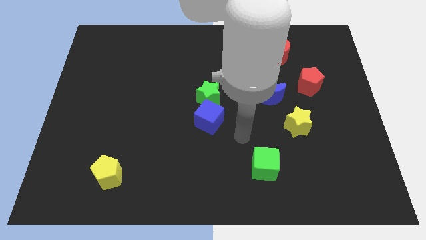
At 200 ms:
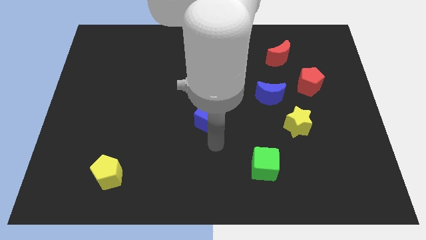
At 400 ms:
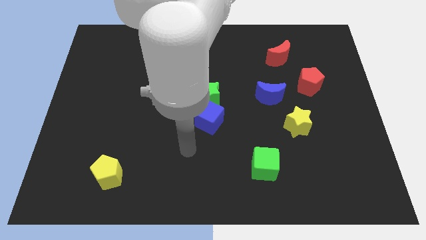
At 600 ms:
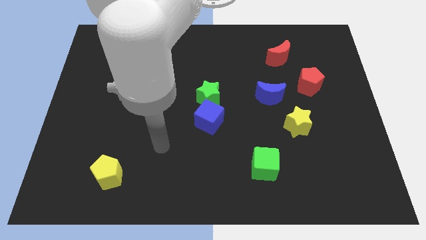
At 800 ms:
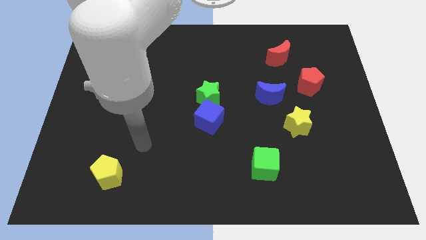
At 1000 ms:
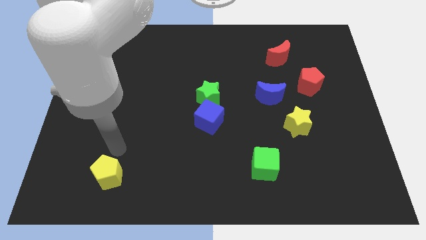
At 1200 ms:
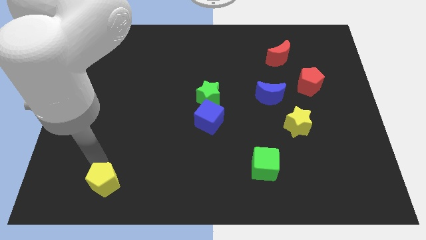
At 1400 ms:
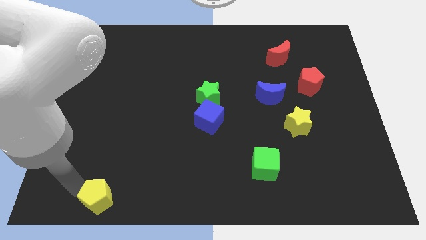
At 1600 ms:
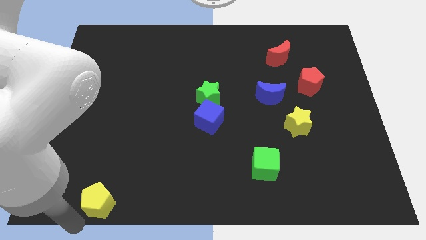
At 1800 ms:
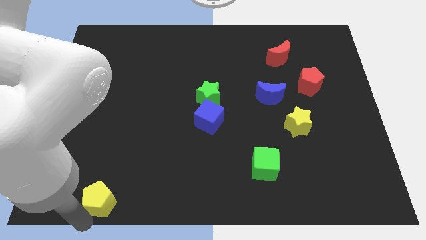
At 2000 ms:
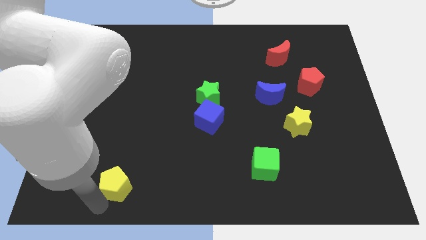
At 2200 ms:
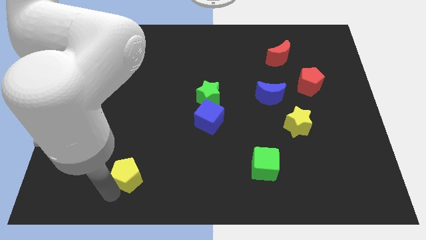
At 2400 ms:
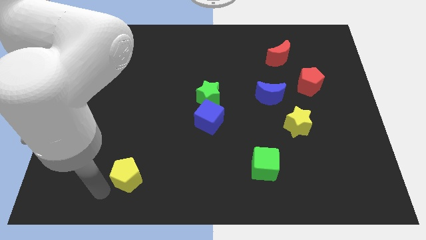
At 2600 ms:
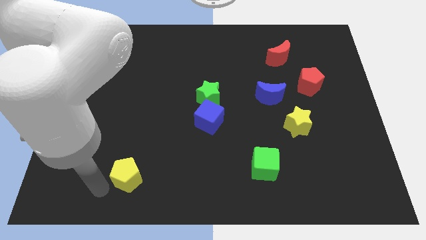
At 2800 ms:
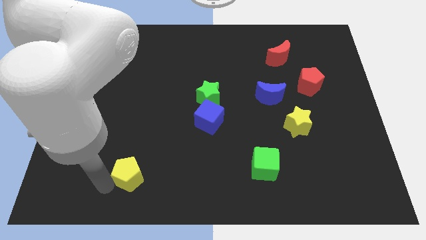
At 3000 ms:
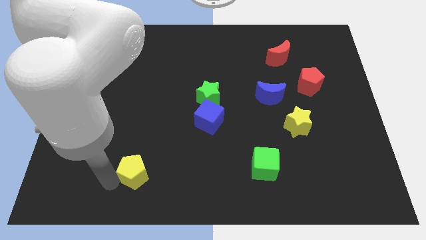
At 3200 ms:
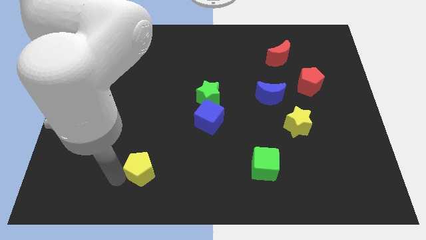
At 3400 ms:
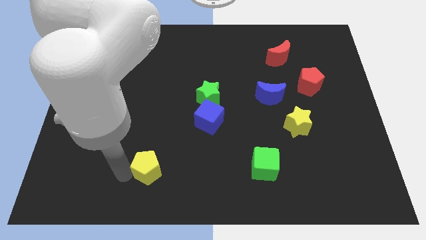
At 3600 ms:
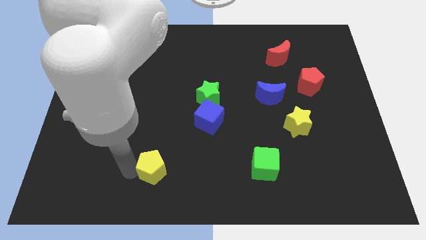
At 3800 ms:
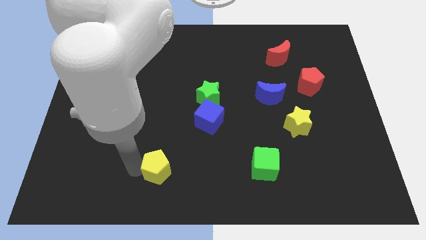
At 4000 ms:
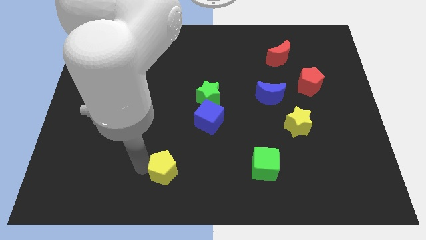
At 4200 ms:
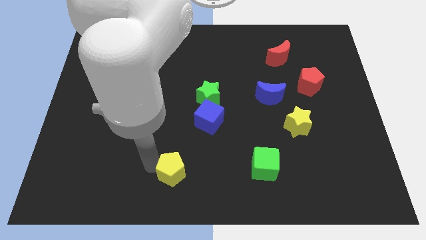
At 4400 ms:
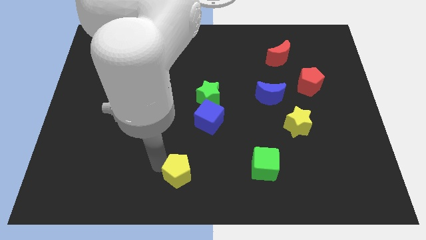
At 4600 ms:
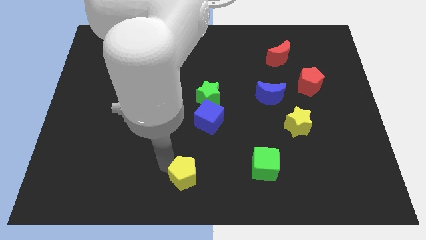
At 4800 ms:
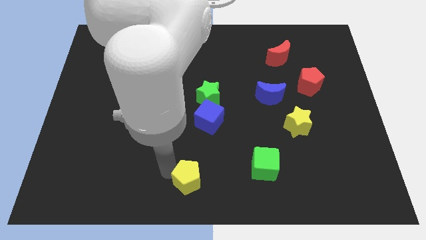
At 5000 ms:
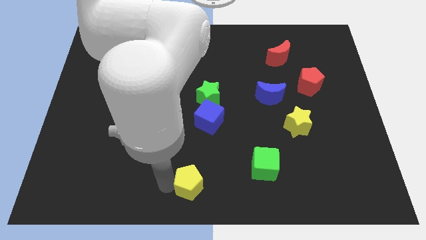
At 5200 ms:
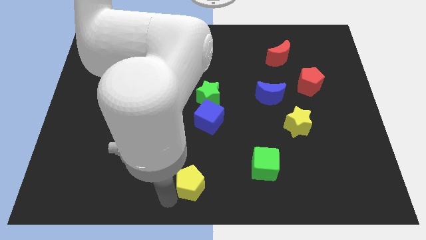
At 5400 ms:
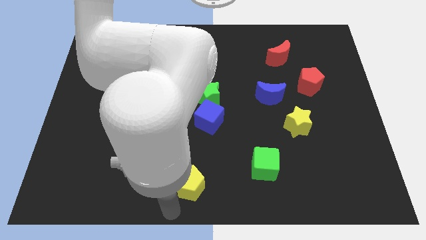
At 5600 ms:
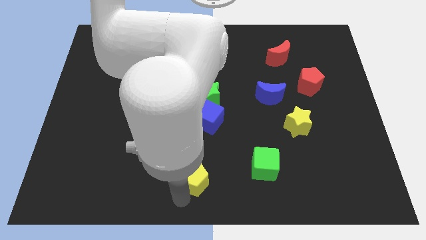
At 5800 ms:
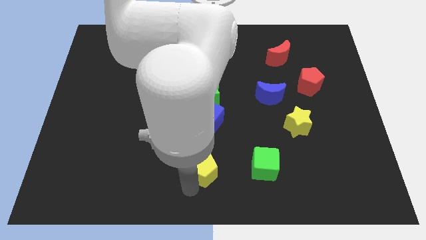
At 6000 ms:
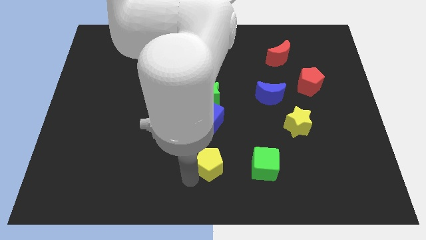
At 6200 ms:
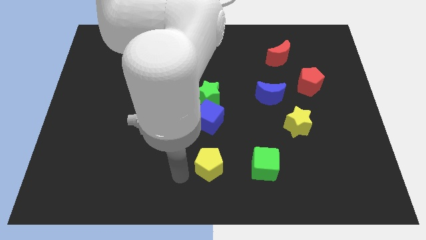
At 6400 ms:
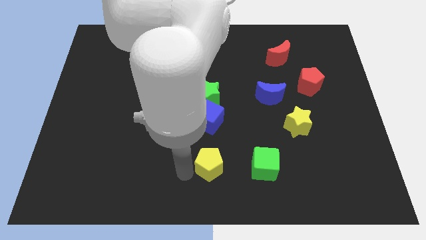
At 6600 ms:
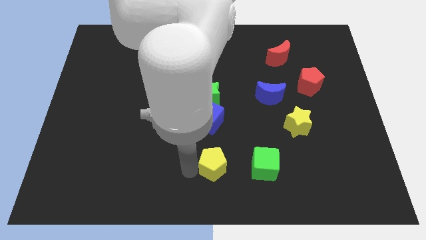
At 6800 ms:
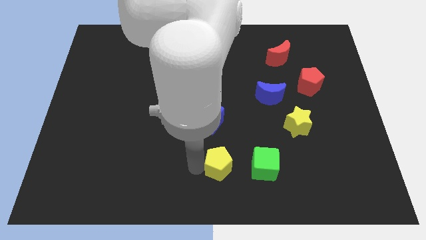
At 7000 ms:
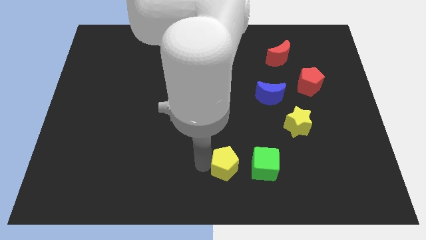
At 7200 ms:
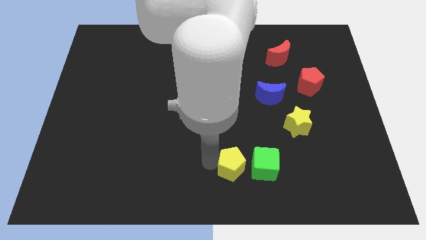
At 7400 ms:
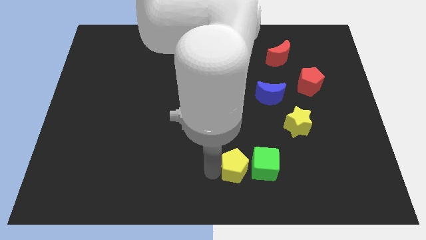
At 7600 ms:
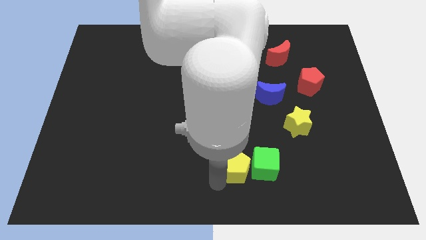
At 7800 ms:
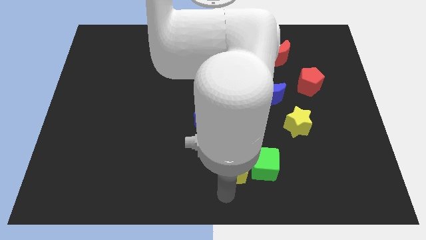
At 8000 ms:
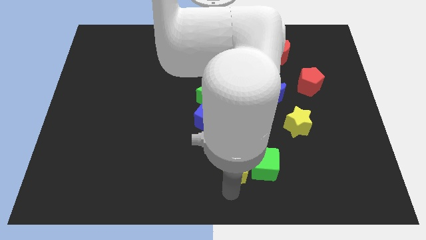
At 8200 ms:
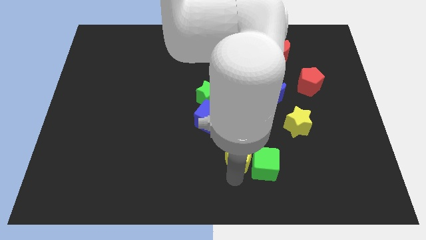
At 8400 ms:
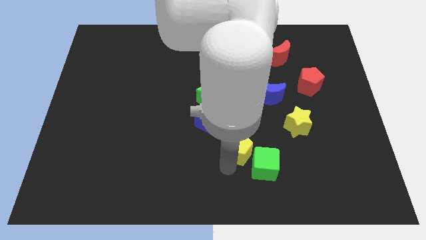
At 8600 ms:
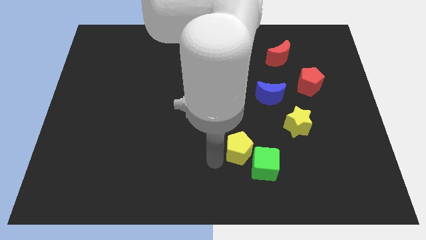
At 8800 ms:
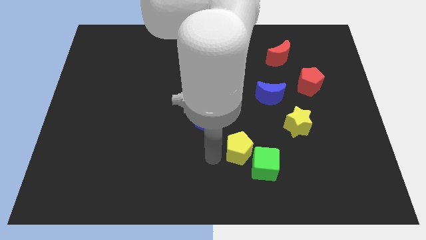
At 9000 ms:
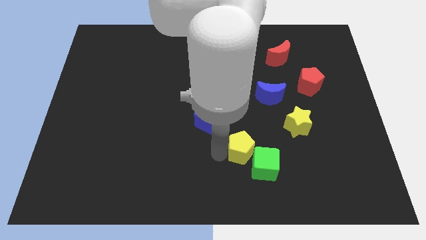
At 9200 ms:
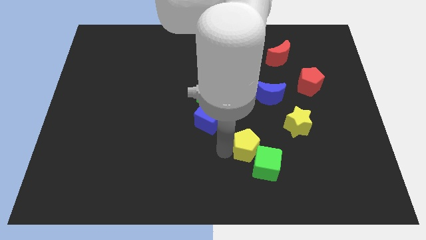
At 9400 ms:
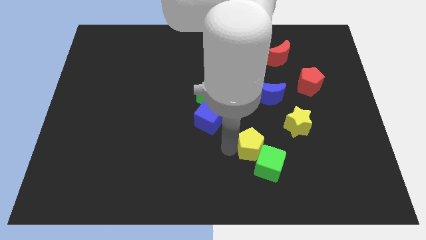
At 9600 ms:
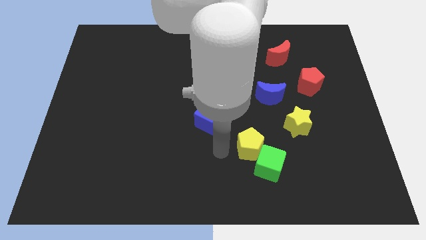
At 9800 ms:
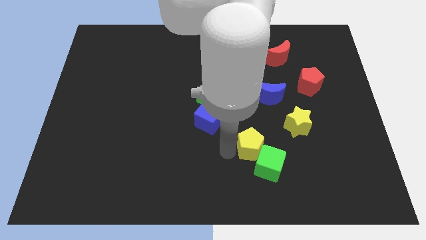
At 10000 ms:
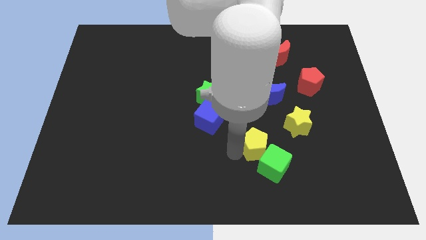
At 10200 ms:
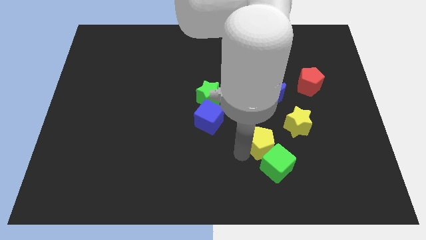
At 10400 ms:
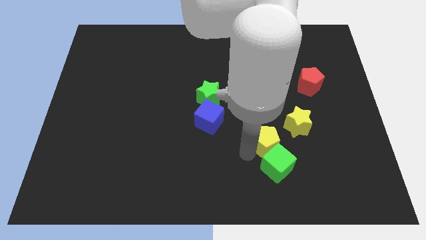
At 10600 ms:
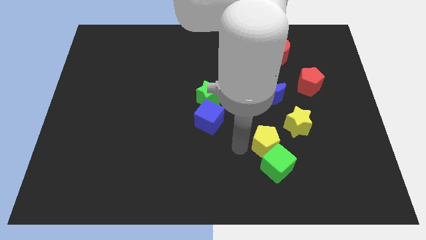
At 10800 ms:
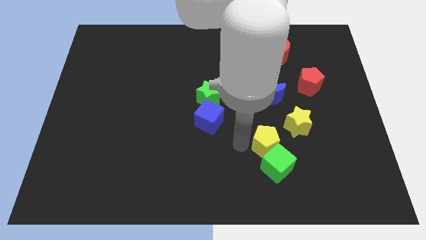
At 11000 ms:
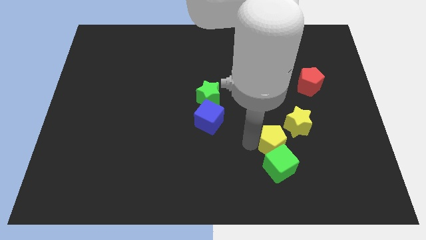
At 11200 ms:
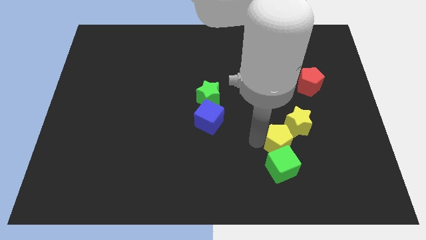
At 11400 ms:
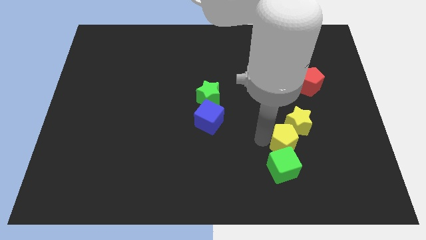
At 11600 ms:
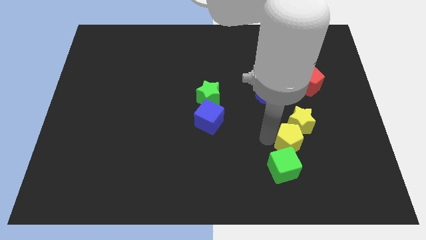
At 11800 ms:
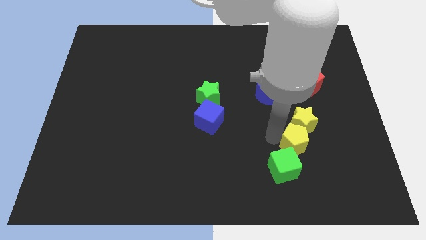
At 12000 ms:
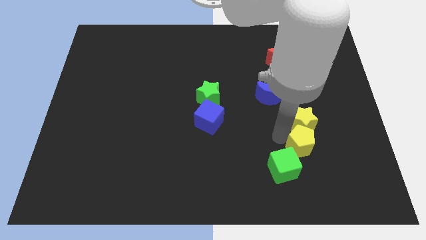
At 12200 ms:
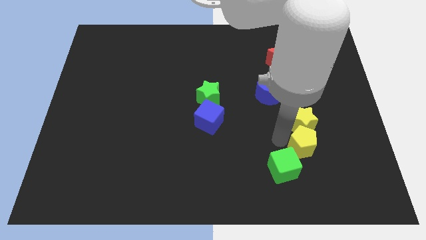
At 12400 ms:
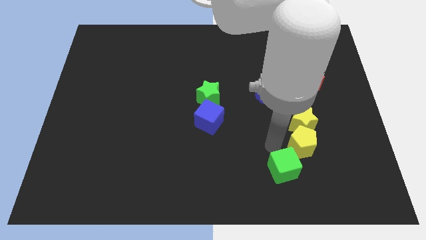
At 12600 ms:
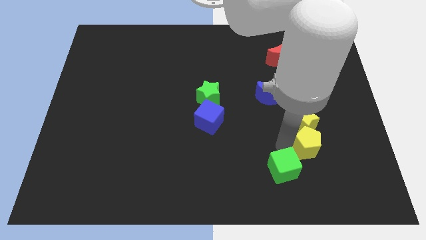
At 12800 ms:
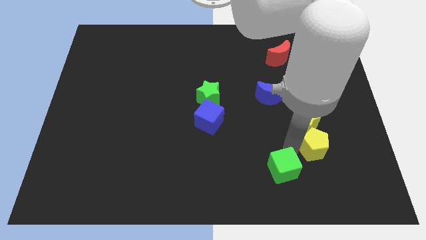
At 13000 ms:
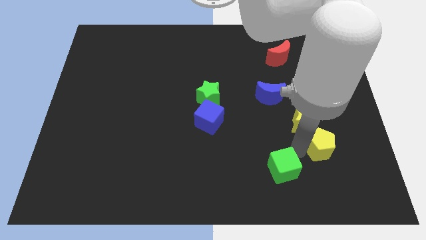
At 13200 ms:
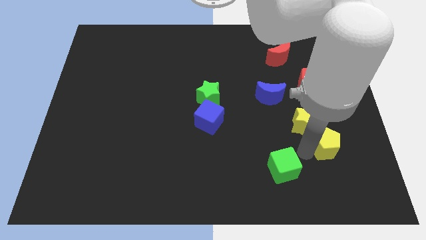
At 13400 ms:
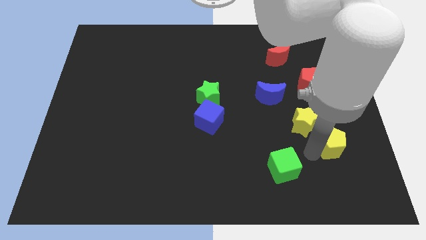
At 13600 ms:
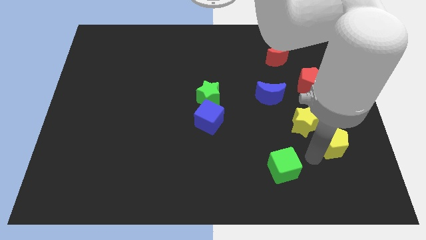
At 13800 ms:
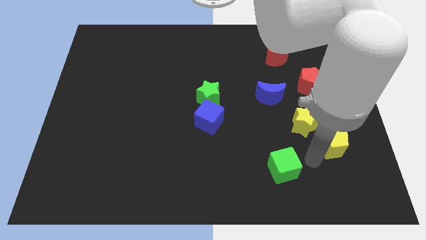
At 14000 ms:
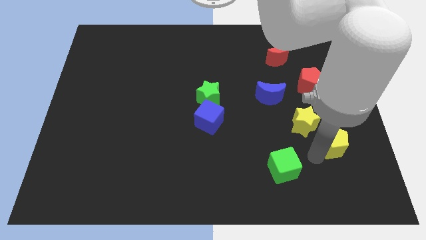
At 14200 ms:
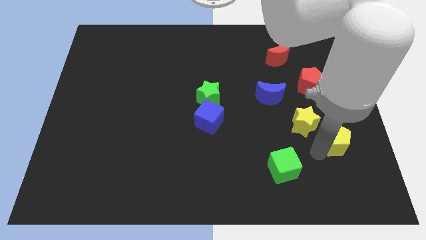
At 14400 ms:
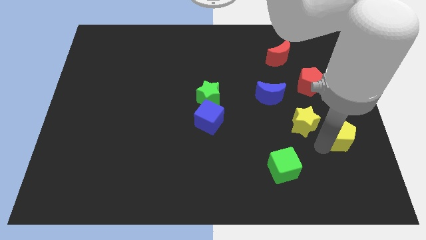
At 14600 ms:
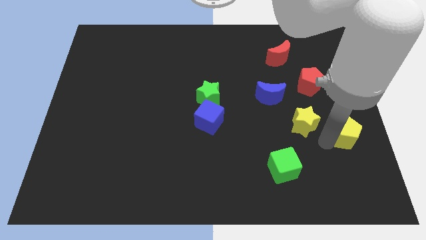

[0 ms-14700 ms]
push the yellow pentagon to the center right
